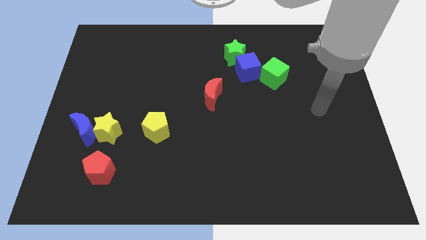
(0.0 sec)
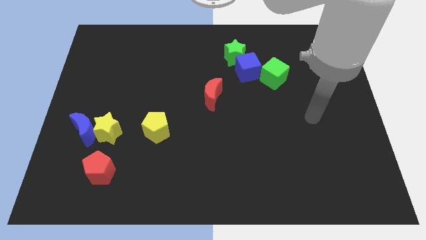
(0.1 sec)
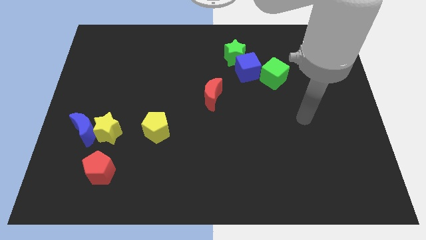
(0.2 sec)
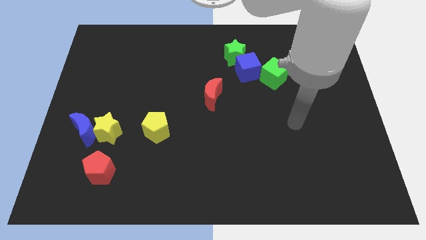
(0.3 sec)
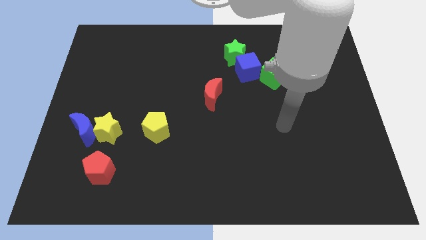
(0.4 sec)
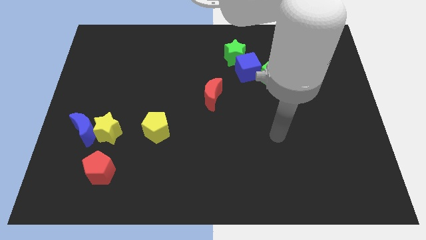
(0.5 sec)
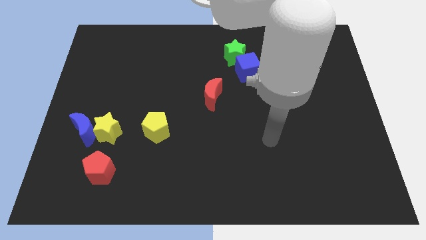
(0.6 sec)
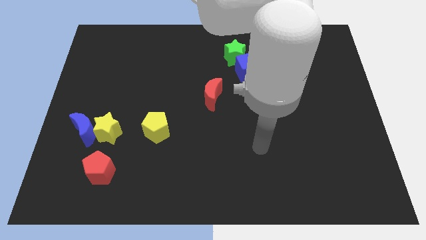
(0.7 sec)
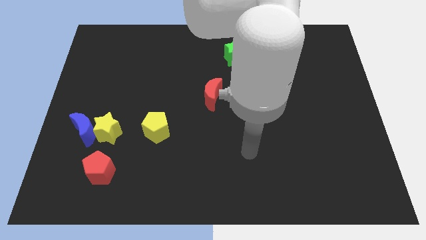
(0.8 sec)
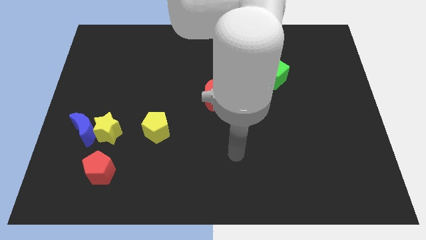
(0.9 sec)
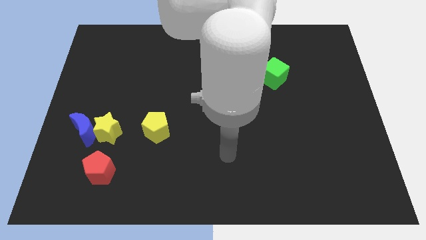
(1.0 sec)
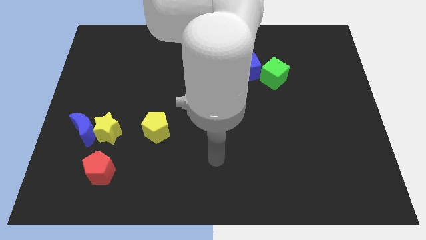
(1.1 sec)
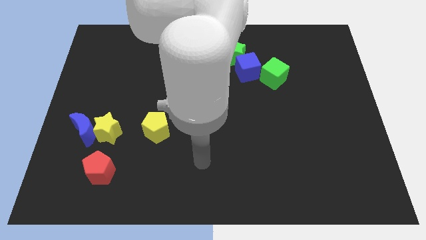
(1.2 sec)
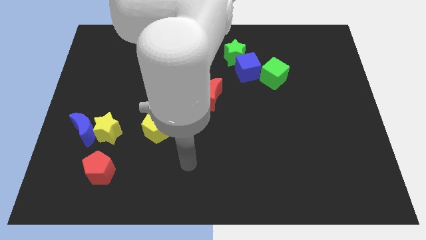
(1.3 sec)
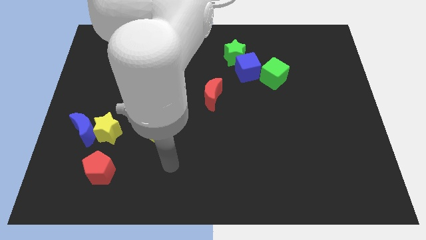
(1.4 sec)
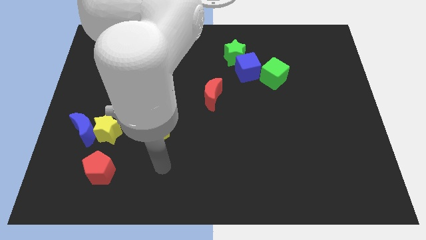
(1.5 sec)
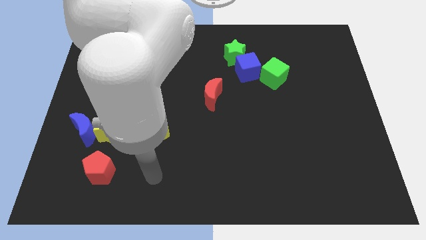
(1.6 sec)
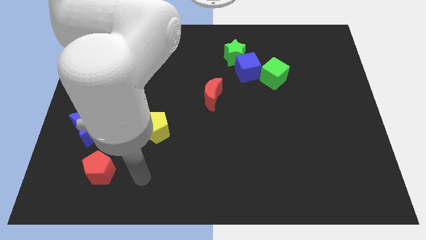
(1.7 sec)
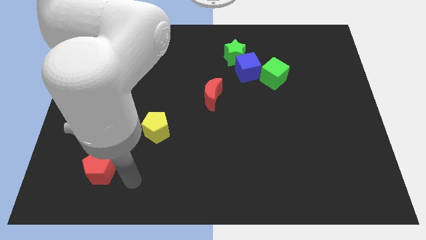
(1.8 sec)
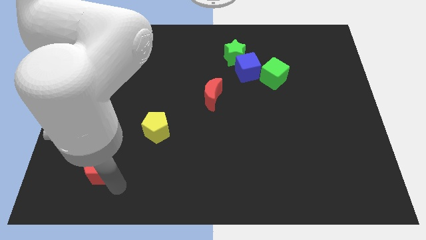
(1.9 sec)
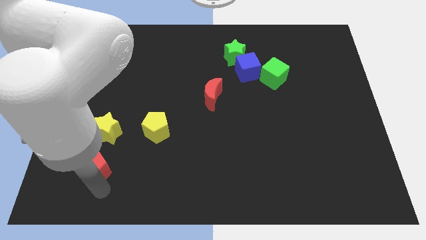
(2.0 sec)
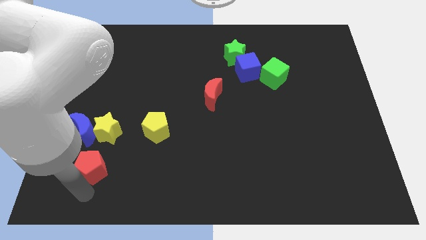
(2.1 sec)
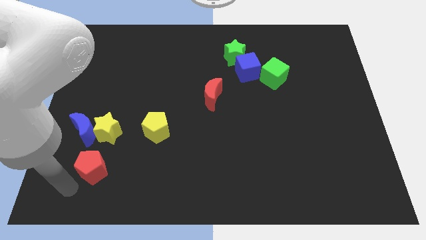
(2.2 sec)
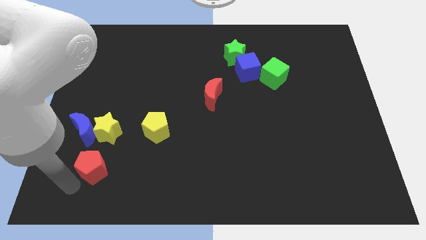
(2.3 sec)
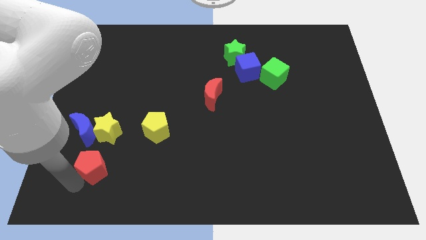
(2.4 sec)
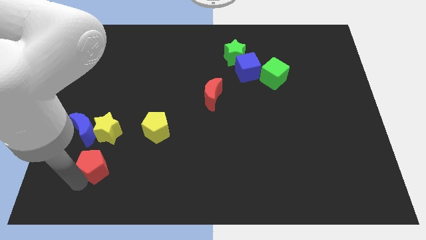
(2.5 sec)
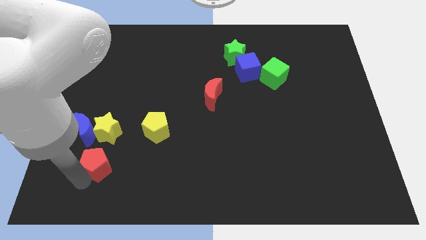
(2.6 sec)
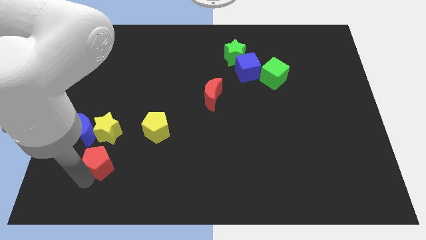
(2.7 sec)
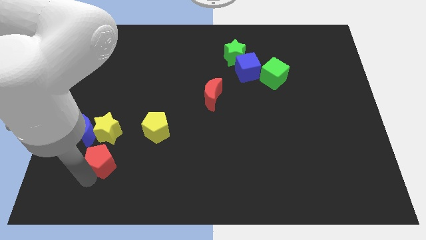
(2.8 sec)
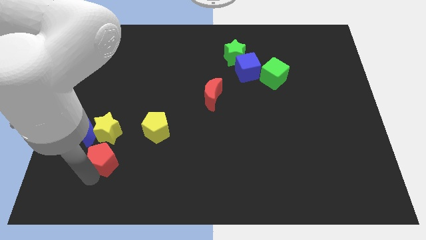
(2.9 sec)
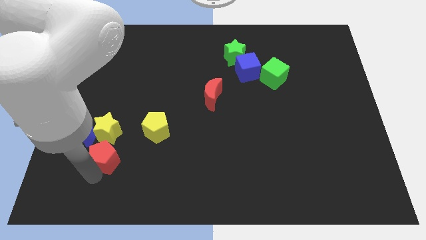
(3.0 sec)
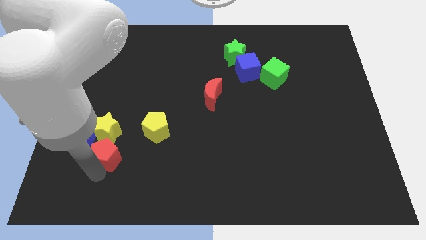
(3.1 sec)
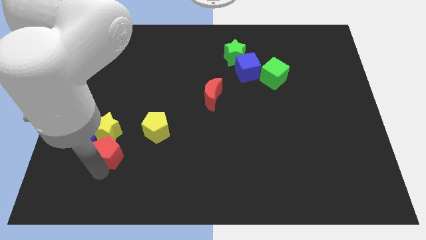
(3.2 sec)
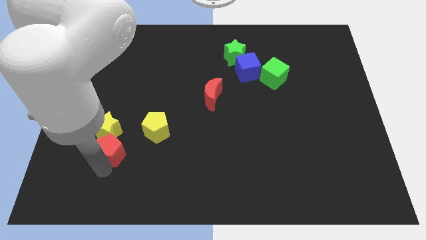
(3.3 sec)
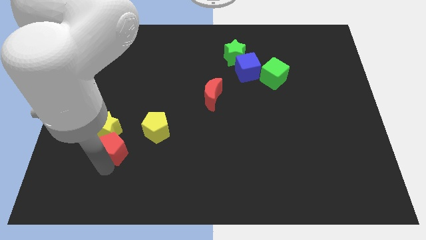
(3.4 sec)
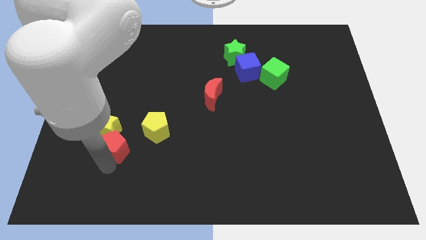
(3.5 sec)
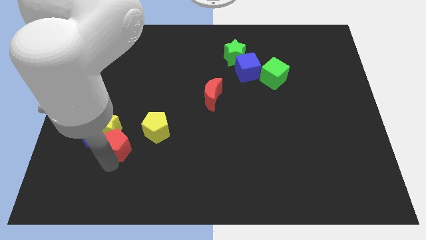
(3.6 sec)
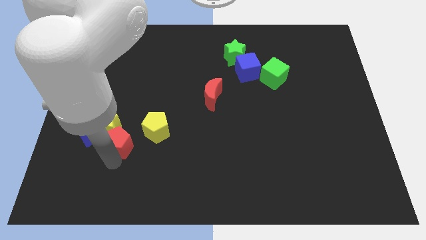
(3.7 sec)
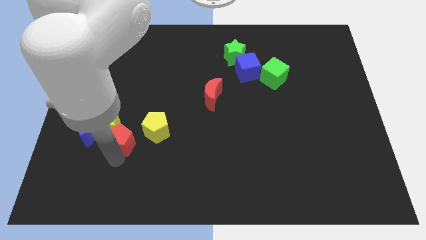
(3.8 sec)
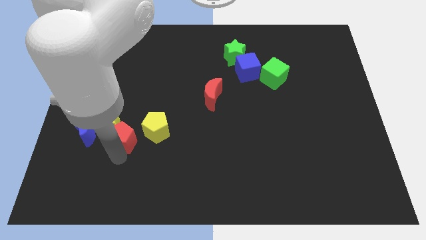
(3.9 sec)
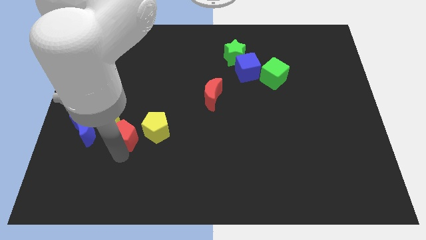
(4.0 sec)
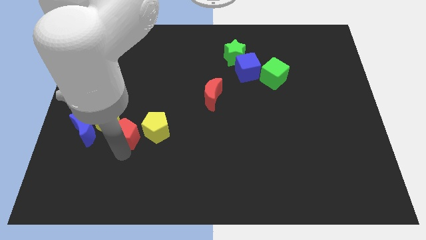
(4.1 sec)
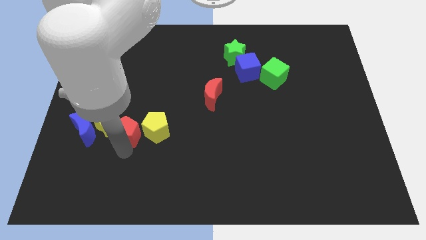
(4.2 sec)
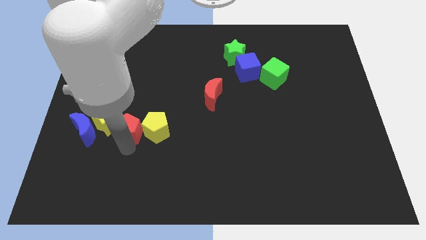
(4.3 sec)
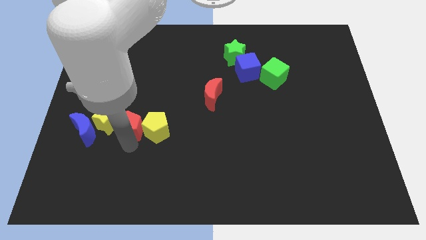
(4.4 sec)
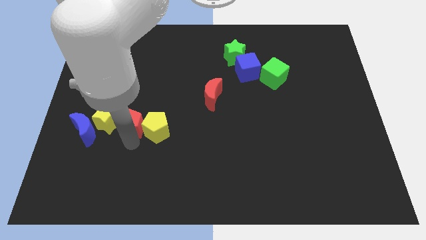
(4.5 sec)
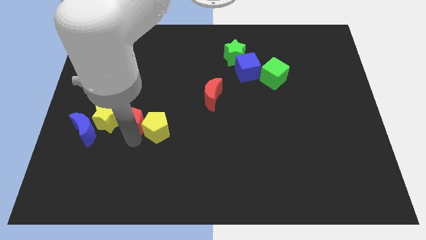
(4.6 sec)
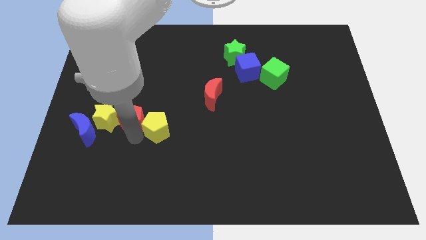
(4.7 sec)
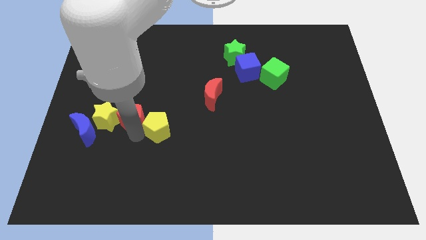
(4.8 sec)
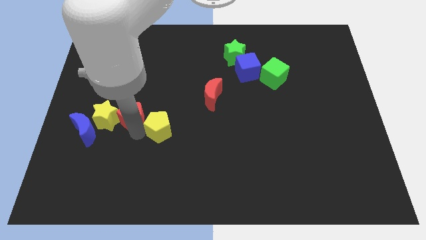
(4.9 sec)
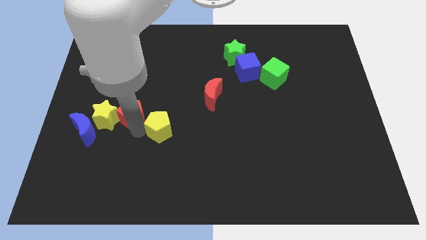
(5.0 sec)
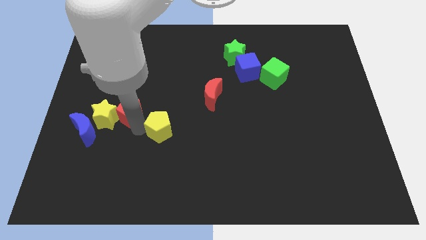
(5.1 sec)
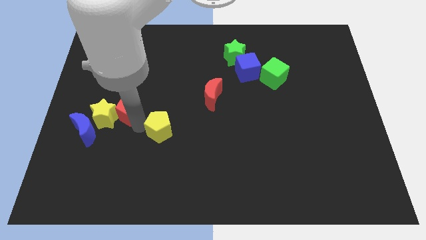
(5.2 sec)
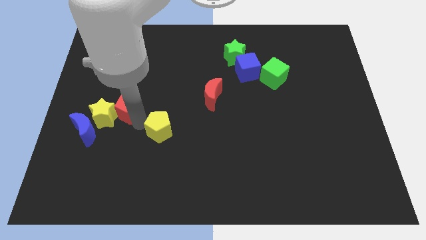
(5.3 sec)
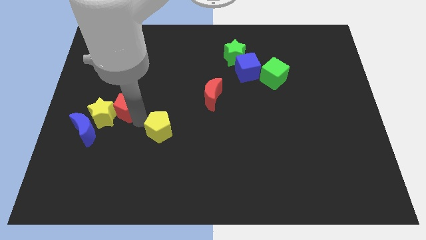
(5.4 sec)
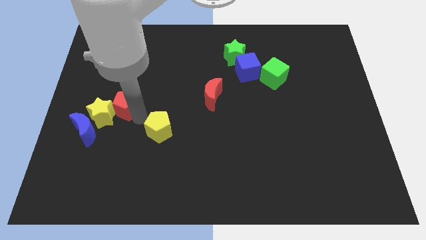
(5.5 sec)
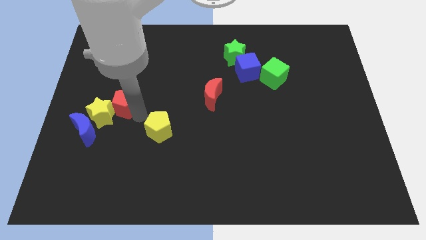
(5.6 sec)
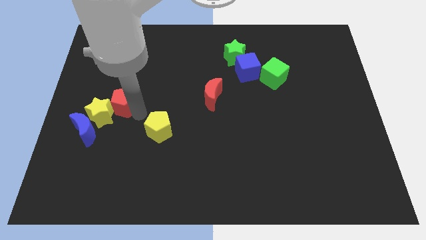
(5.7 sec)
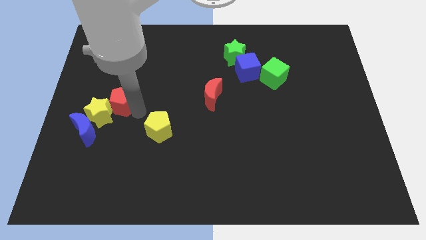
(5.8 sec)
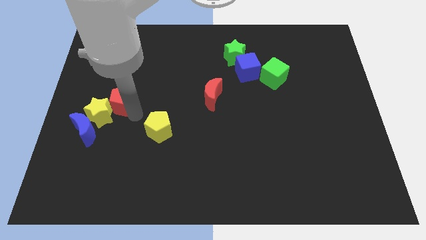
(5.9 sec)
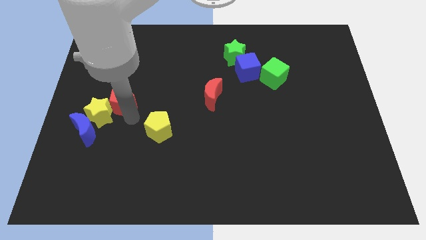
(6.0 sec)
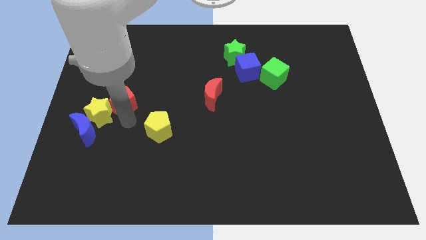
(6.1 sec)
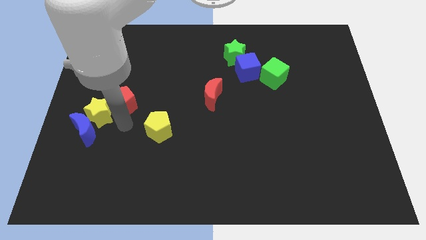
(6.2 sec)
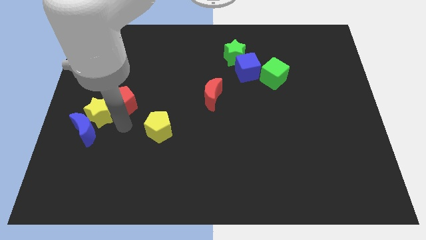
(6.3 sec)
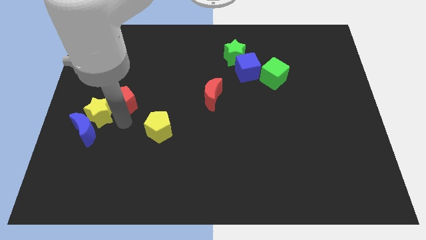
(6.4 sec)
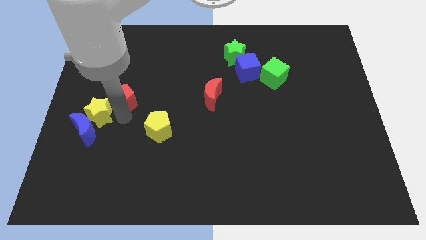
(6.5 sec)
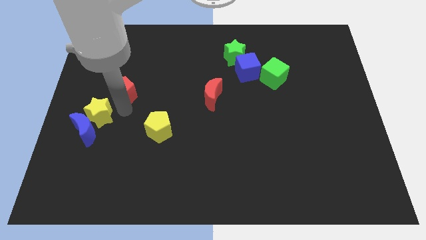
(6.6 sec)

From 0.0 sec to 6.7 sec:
move the red pentagon upwards

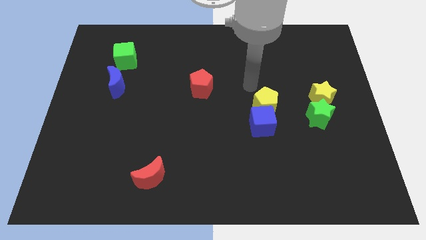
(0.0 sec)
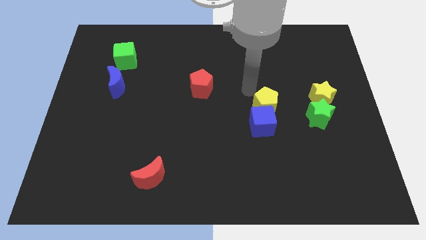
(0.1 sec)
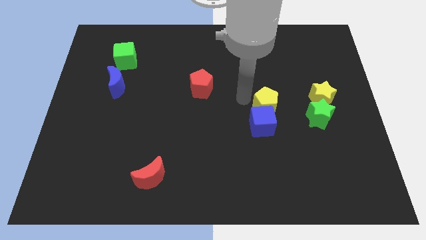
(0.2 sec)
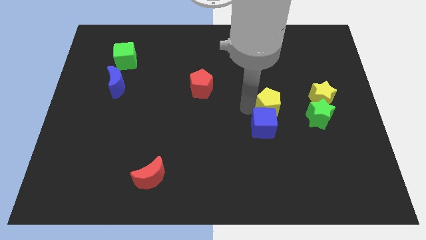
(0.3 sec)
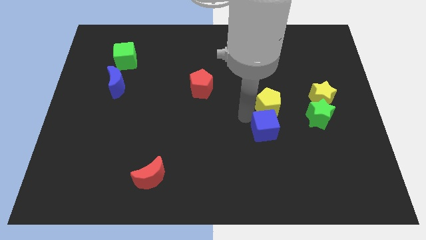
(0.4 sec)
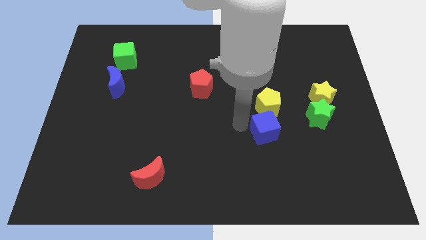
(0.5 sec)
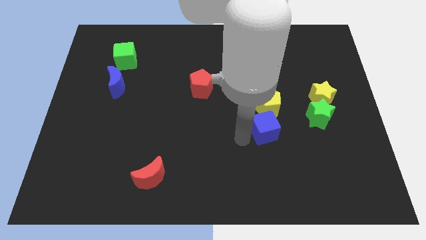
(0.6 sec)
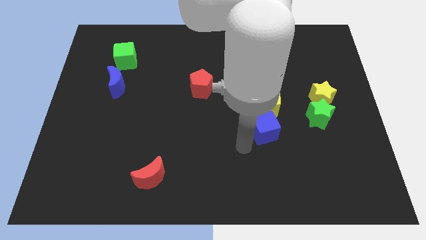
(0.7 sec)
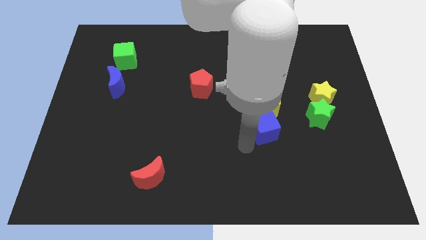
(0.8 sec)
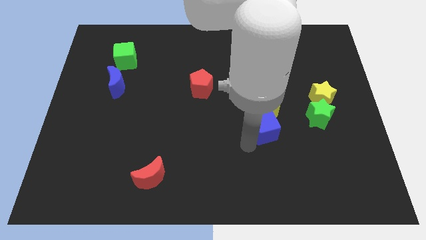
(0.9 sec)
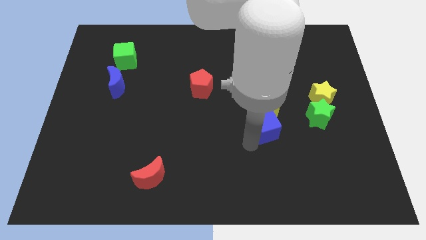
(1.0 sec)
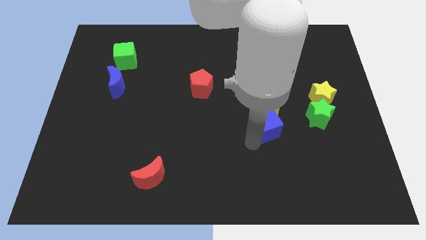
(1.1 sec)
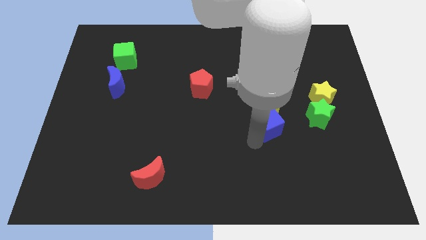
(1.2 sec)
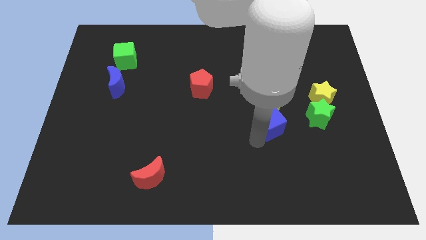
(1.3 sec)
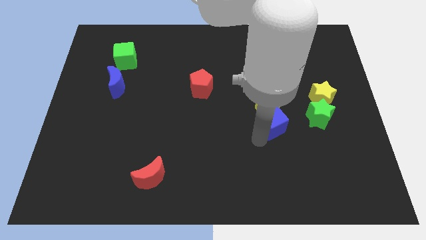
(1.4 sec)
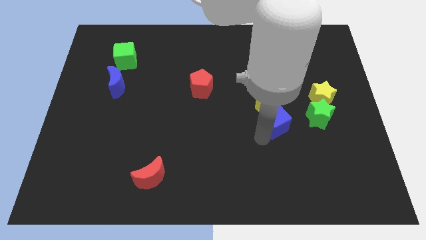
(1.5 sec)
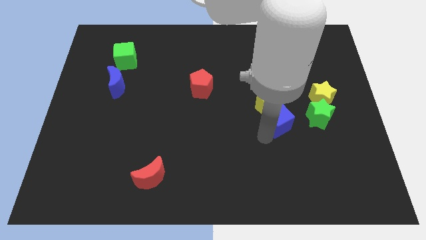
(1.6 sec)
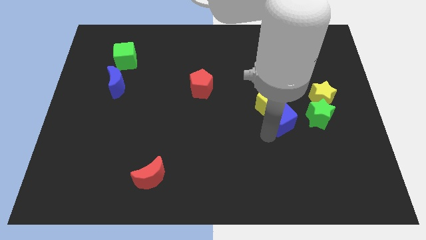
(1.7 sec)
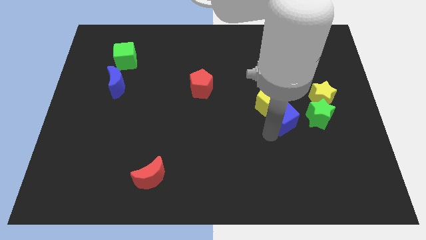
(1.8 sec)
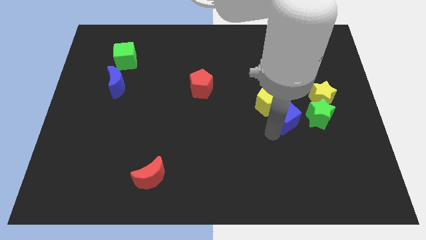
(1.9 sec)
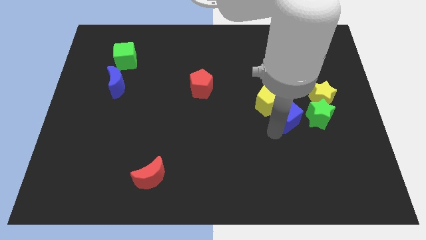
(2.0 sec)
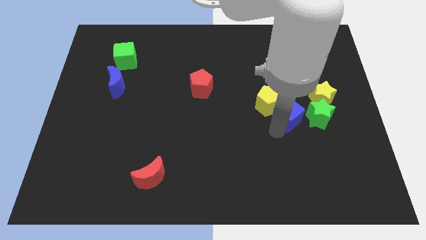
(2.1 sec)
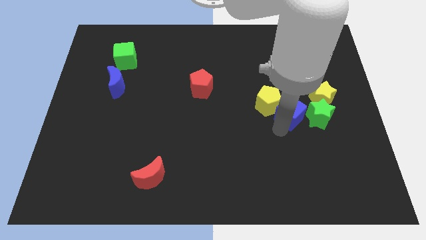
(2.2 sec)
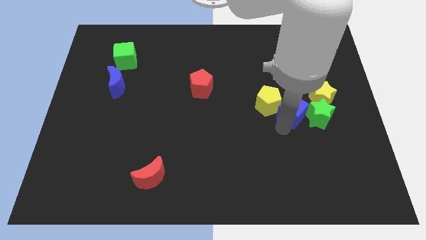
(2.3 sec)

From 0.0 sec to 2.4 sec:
slightly push the blue cube up and to the right diagonally
